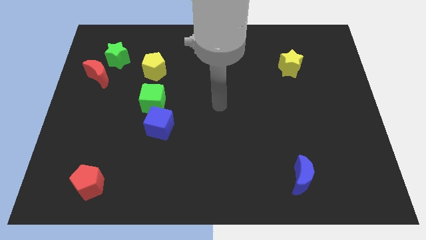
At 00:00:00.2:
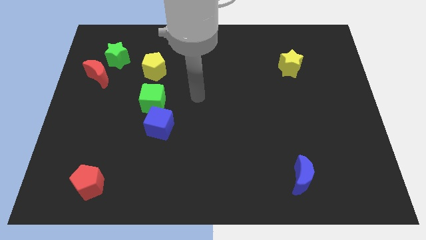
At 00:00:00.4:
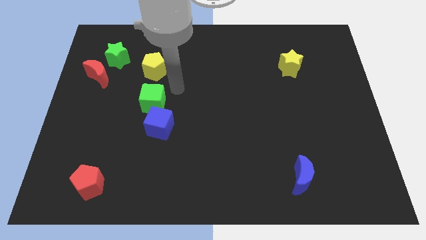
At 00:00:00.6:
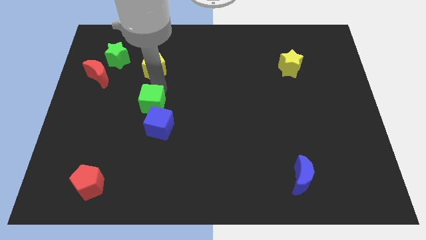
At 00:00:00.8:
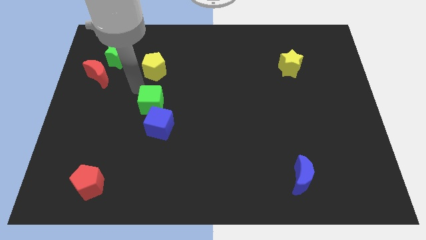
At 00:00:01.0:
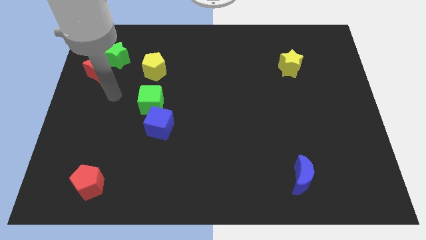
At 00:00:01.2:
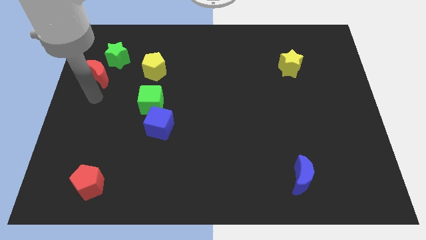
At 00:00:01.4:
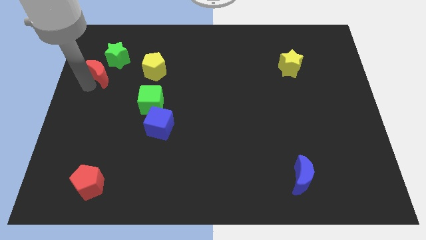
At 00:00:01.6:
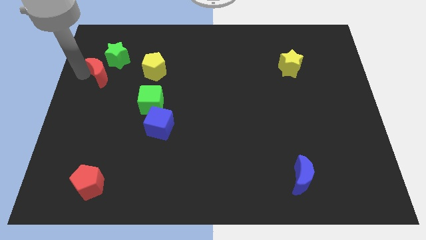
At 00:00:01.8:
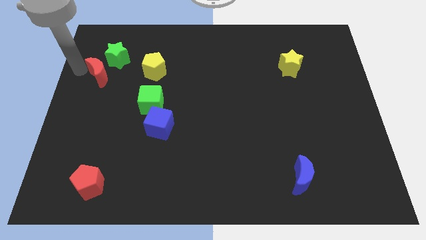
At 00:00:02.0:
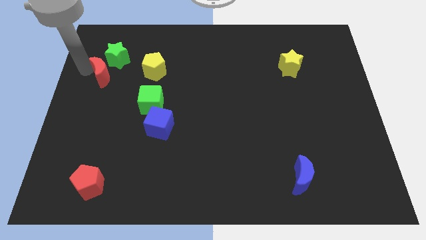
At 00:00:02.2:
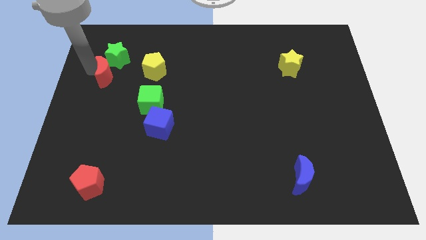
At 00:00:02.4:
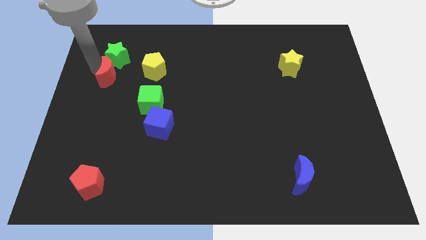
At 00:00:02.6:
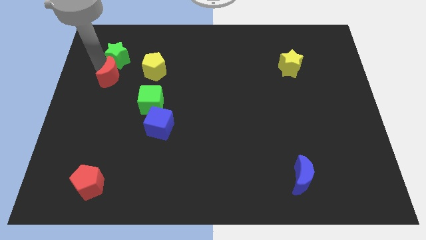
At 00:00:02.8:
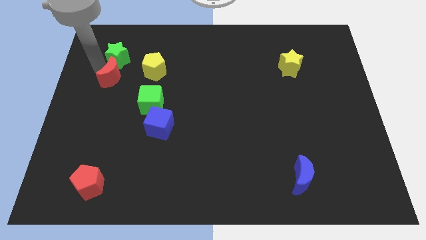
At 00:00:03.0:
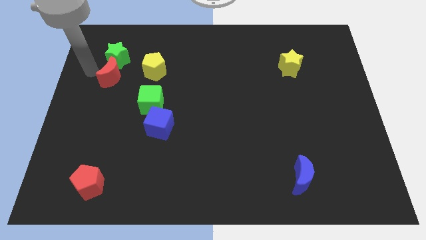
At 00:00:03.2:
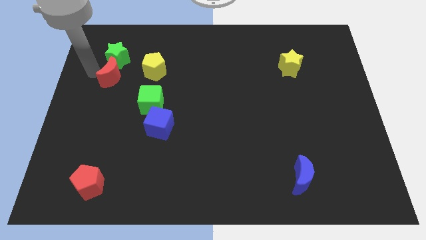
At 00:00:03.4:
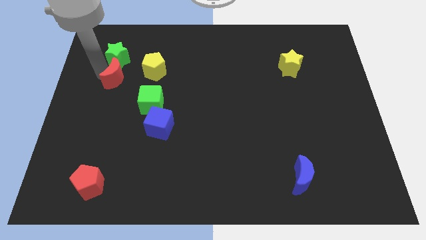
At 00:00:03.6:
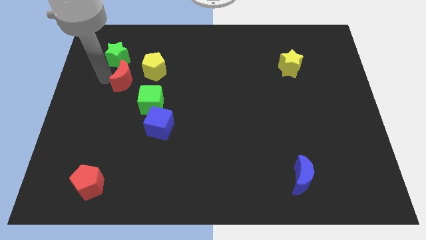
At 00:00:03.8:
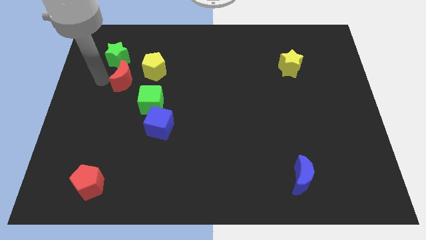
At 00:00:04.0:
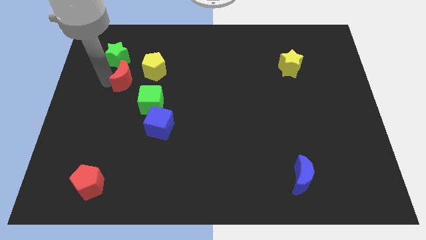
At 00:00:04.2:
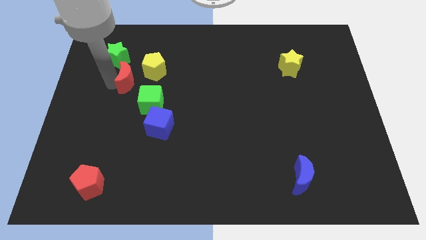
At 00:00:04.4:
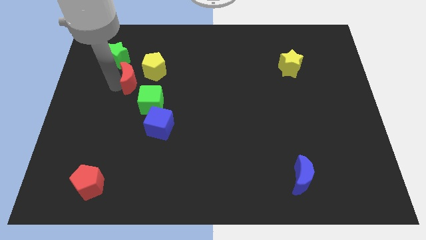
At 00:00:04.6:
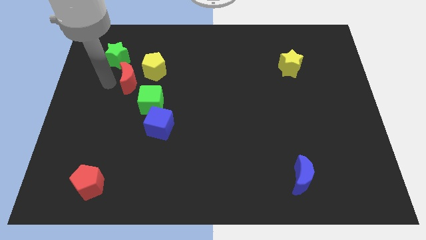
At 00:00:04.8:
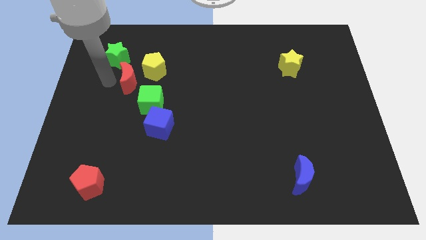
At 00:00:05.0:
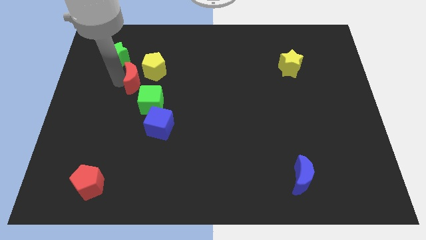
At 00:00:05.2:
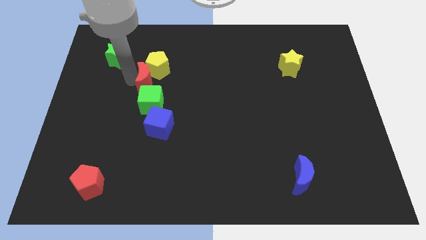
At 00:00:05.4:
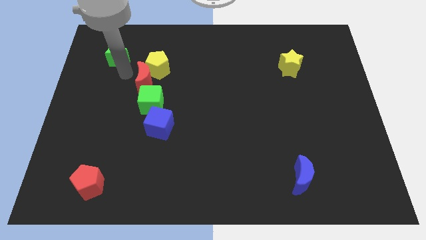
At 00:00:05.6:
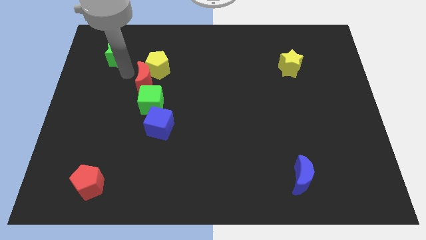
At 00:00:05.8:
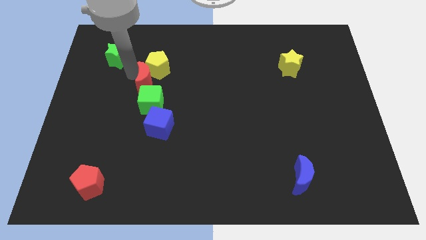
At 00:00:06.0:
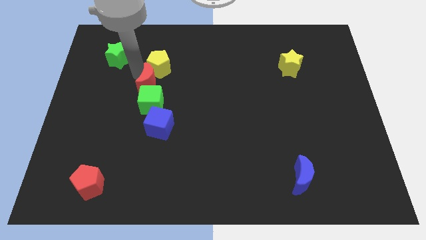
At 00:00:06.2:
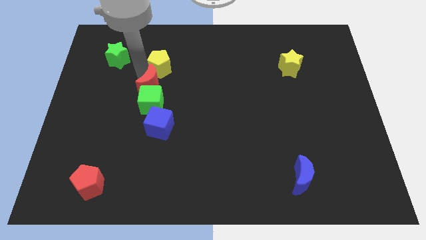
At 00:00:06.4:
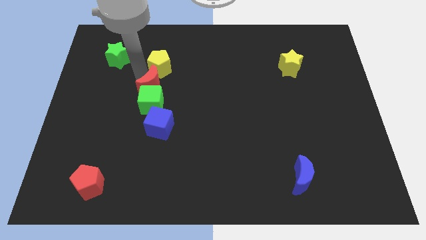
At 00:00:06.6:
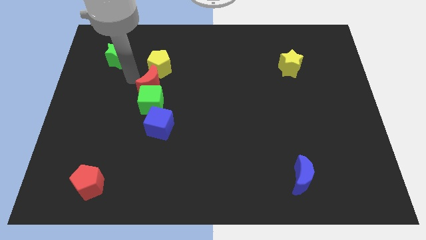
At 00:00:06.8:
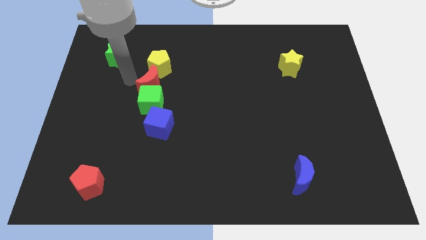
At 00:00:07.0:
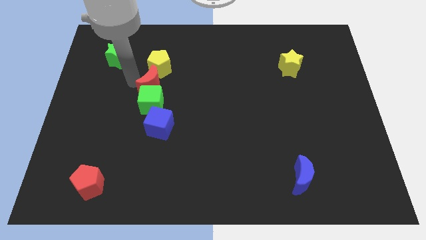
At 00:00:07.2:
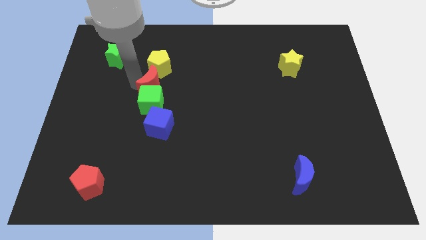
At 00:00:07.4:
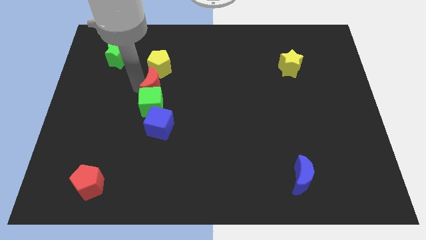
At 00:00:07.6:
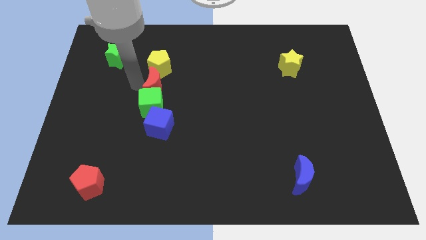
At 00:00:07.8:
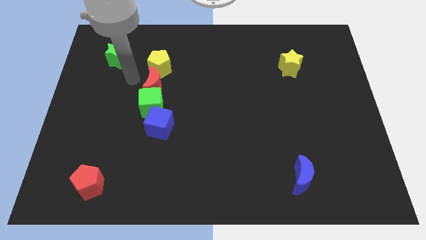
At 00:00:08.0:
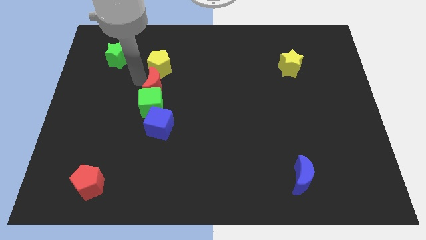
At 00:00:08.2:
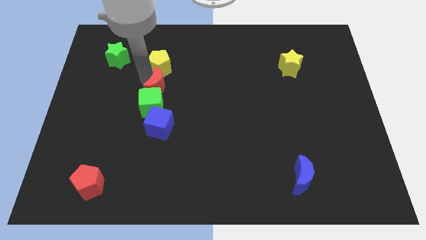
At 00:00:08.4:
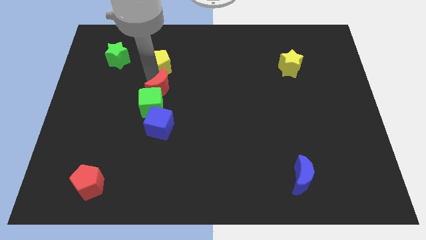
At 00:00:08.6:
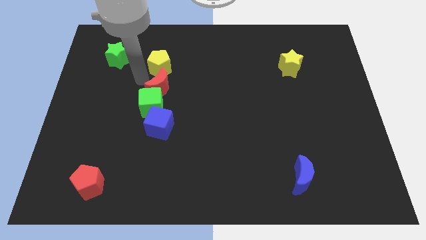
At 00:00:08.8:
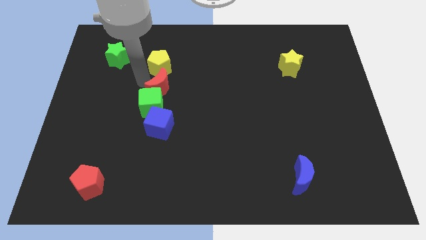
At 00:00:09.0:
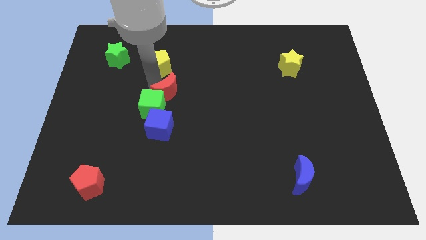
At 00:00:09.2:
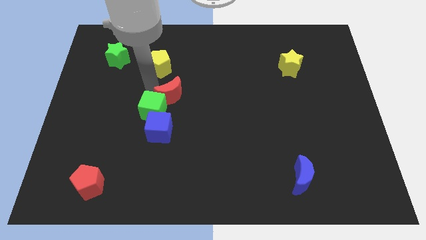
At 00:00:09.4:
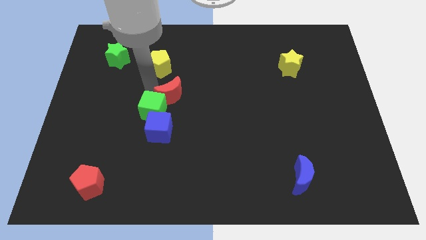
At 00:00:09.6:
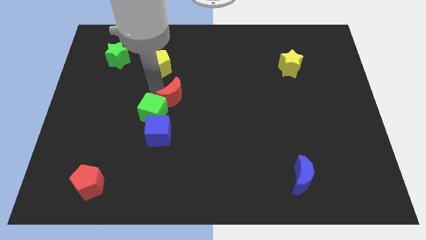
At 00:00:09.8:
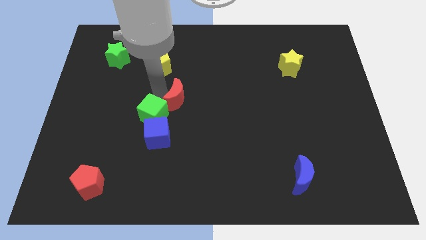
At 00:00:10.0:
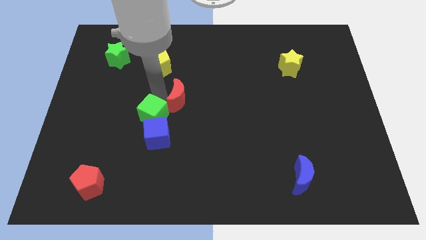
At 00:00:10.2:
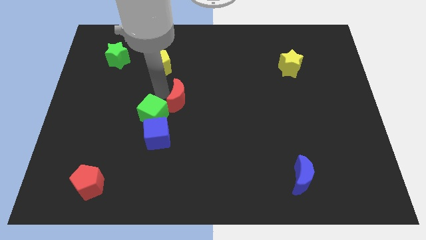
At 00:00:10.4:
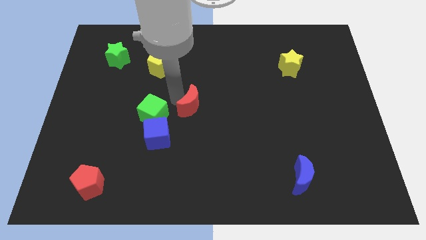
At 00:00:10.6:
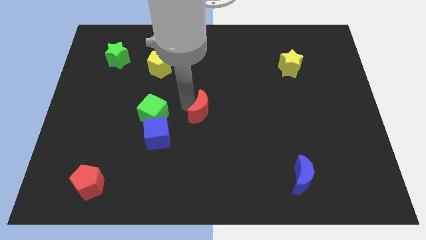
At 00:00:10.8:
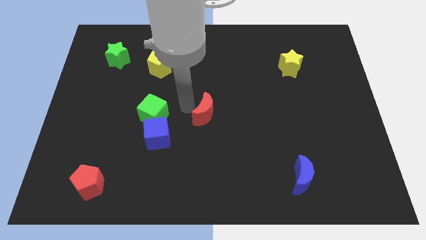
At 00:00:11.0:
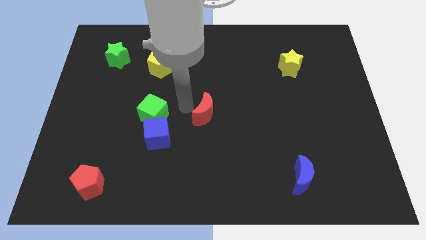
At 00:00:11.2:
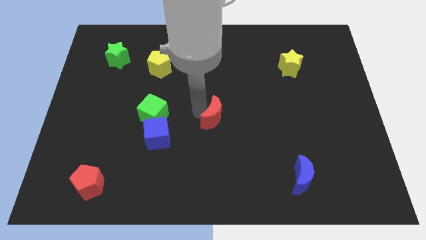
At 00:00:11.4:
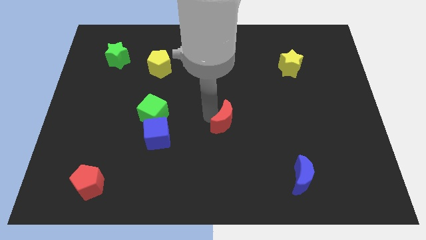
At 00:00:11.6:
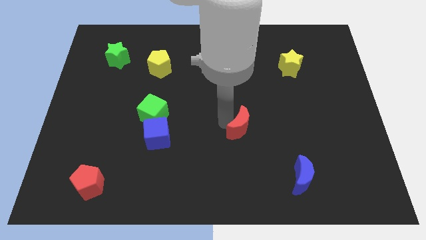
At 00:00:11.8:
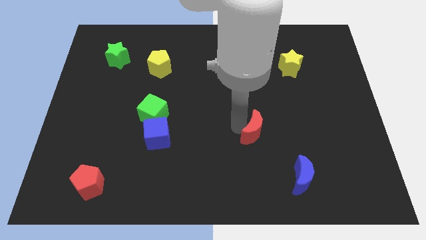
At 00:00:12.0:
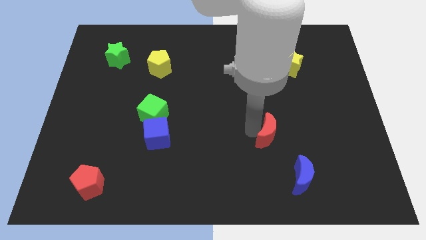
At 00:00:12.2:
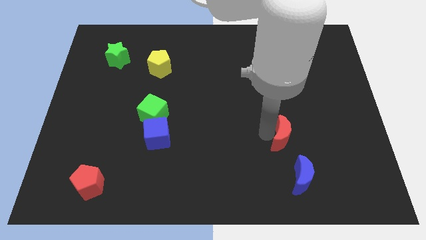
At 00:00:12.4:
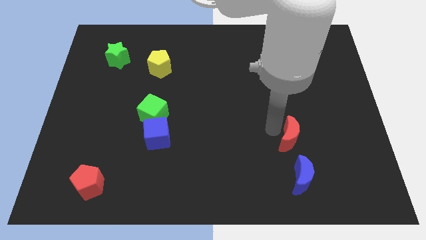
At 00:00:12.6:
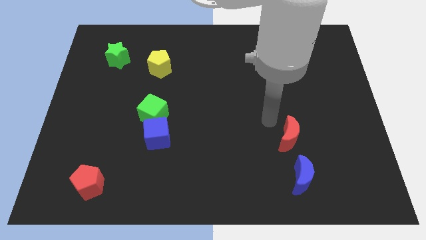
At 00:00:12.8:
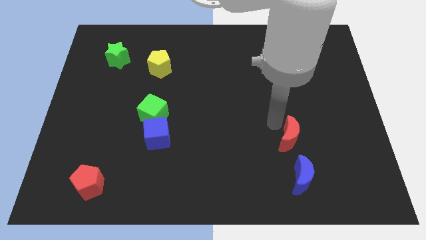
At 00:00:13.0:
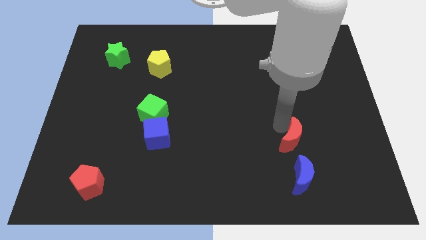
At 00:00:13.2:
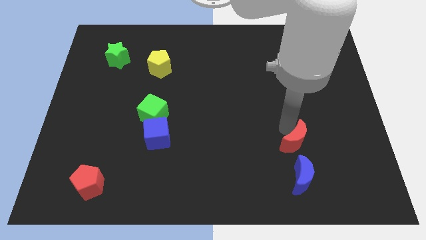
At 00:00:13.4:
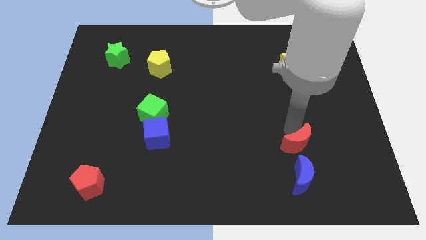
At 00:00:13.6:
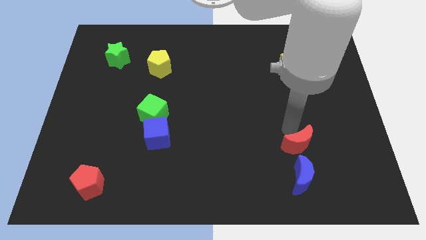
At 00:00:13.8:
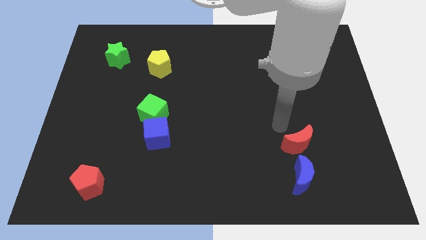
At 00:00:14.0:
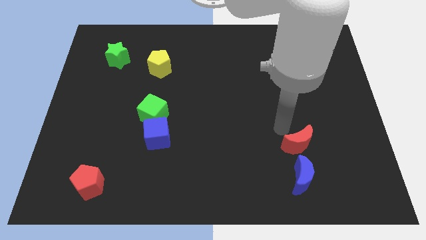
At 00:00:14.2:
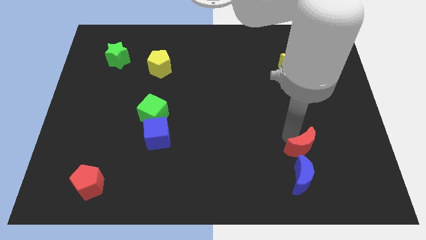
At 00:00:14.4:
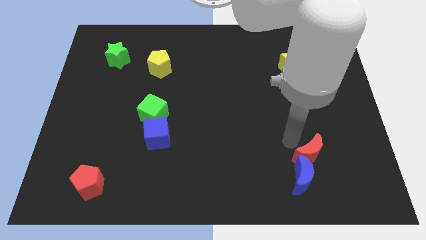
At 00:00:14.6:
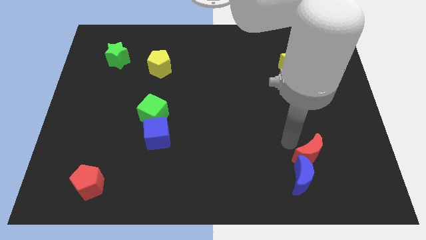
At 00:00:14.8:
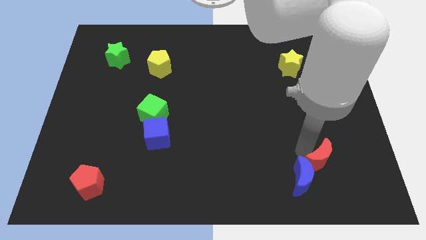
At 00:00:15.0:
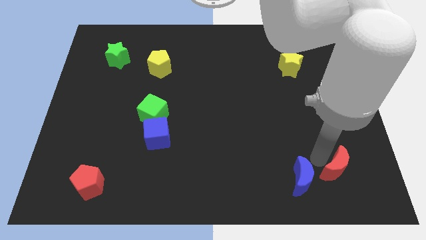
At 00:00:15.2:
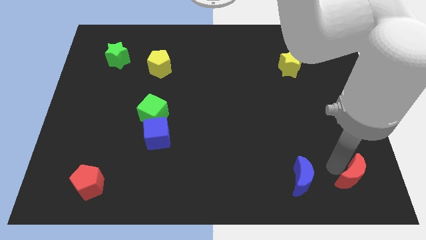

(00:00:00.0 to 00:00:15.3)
slide the red moon to the bottom right
